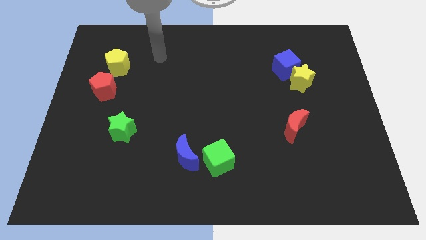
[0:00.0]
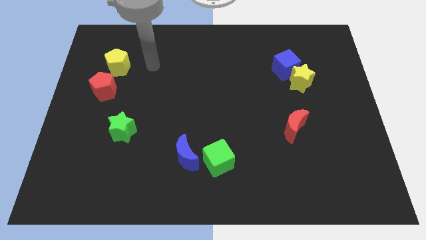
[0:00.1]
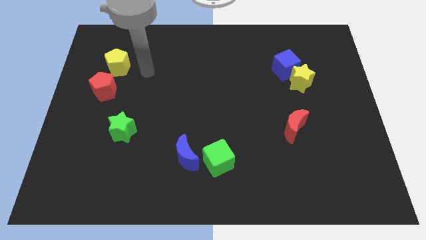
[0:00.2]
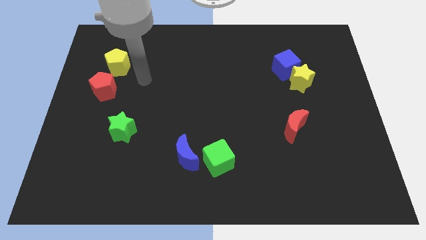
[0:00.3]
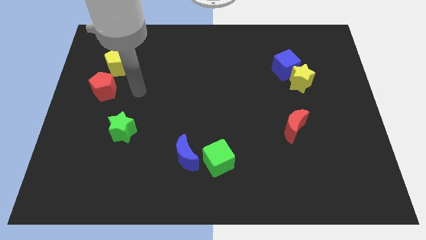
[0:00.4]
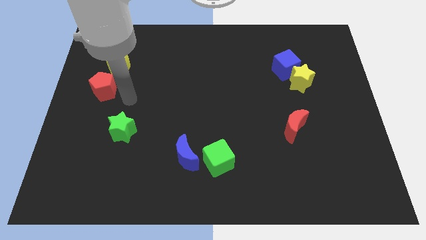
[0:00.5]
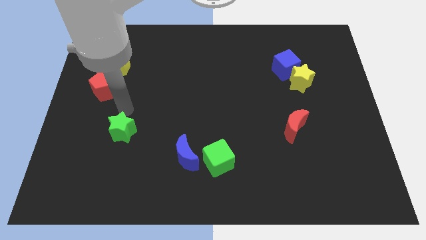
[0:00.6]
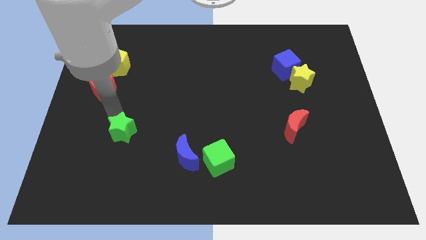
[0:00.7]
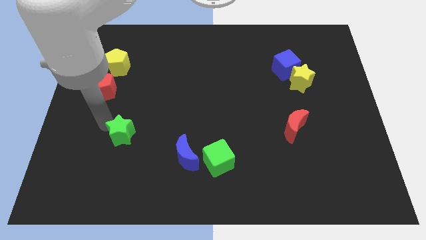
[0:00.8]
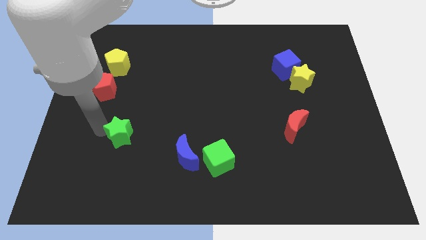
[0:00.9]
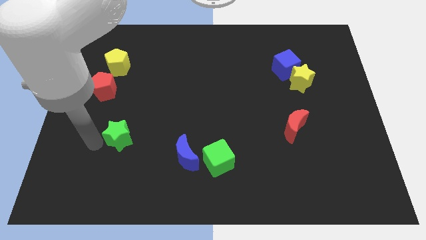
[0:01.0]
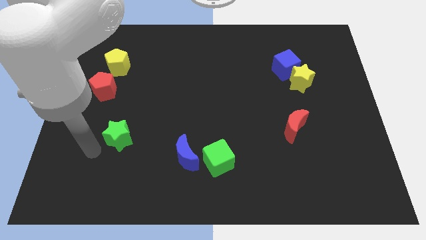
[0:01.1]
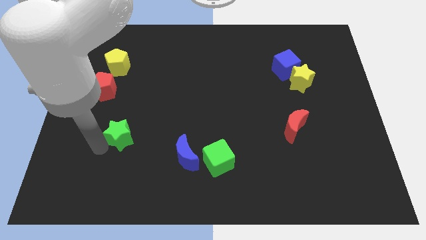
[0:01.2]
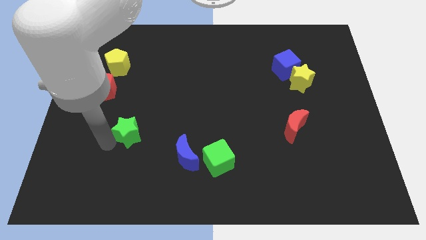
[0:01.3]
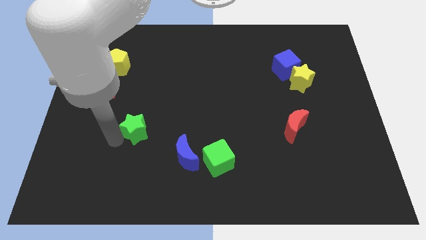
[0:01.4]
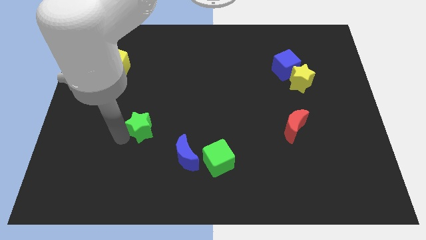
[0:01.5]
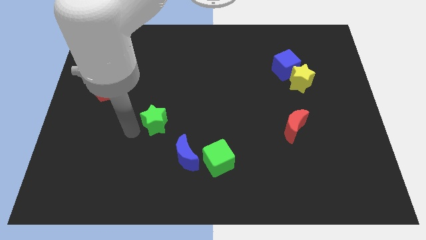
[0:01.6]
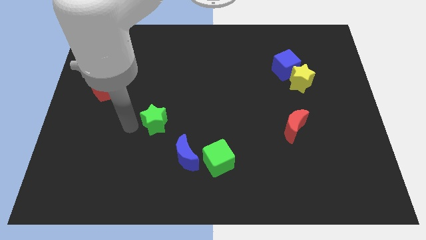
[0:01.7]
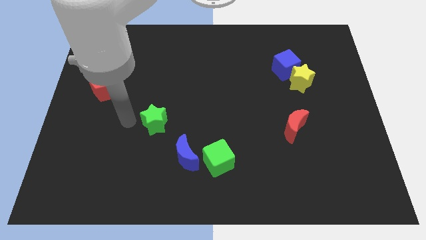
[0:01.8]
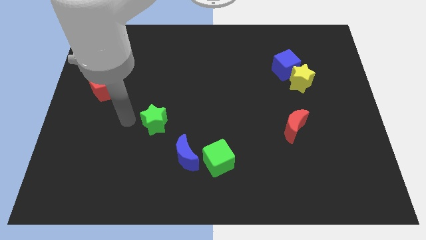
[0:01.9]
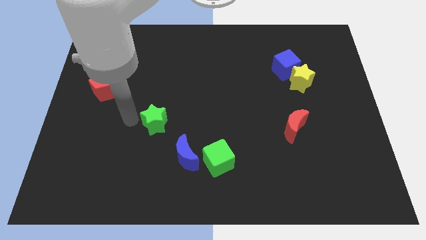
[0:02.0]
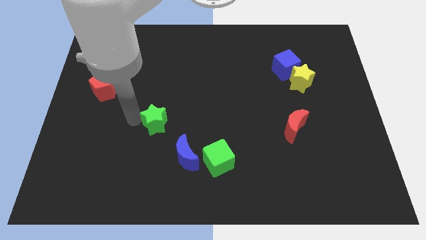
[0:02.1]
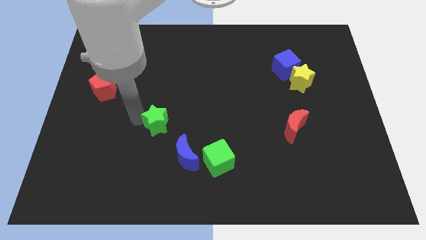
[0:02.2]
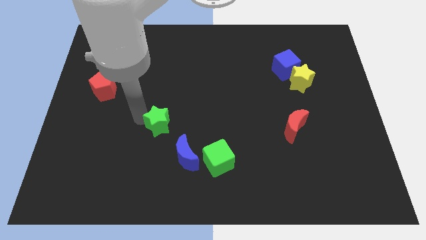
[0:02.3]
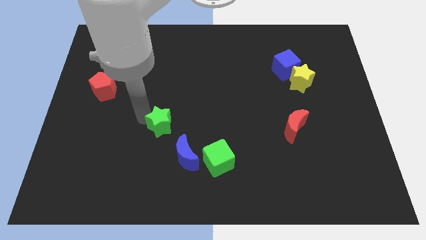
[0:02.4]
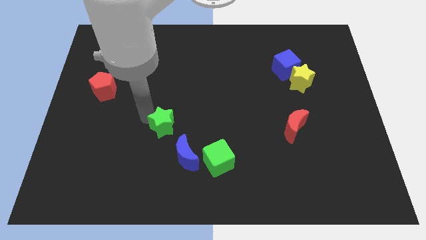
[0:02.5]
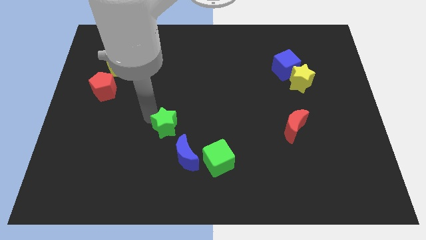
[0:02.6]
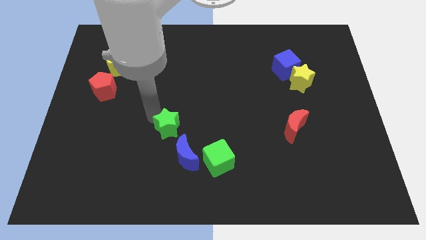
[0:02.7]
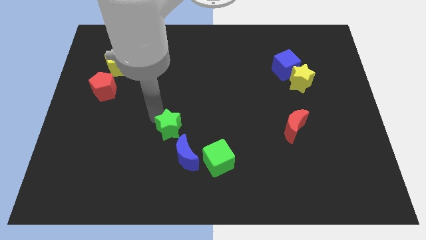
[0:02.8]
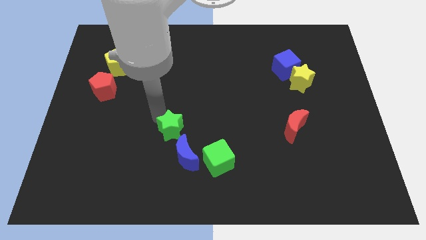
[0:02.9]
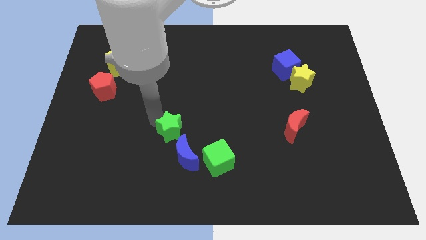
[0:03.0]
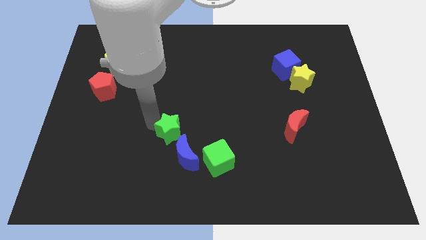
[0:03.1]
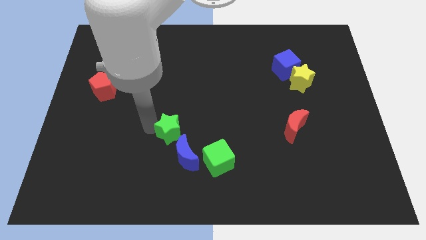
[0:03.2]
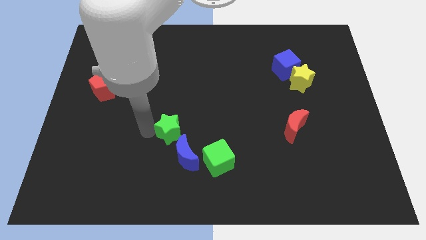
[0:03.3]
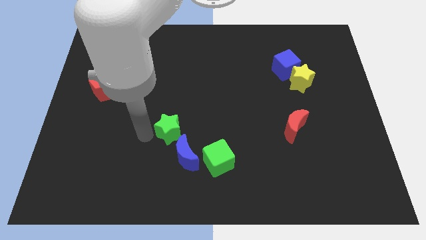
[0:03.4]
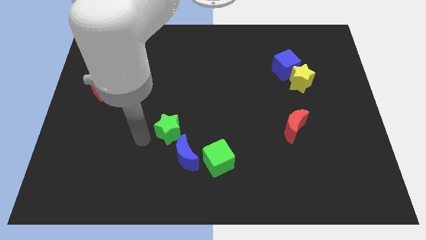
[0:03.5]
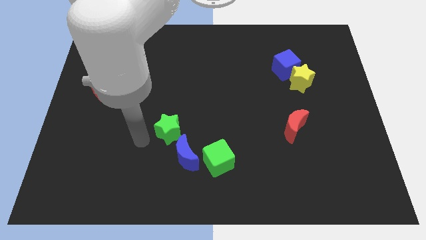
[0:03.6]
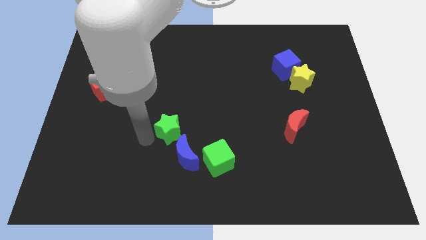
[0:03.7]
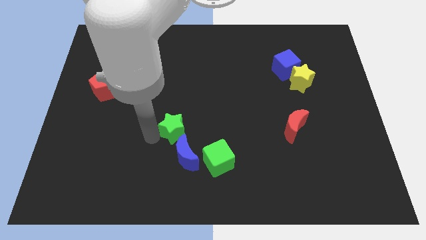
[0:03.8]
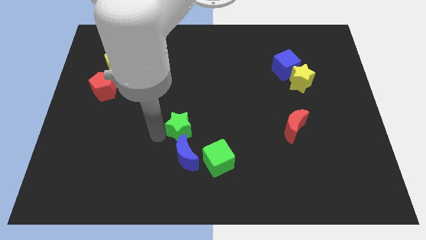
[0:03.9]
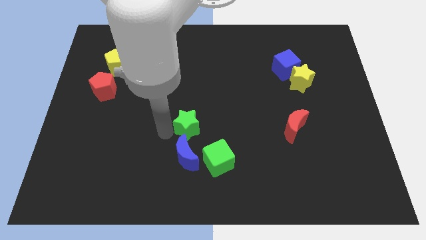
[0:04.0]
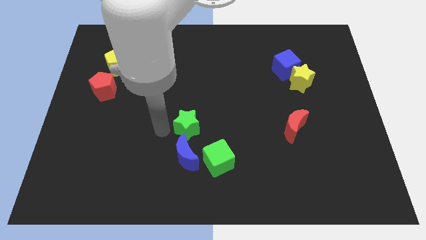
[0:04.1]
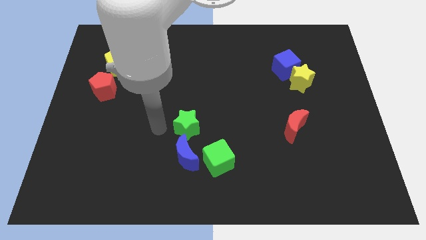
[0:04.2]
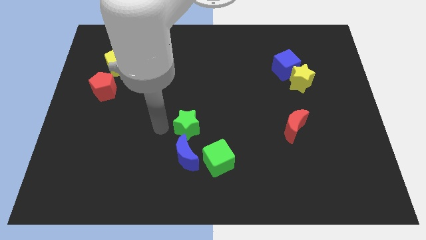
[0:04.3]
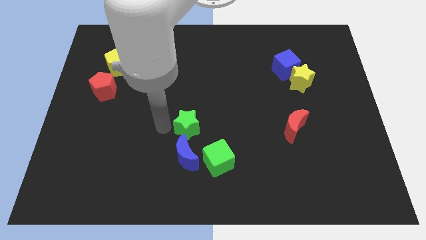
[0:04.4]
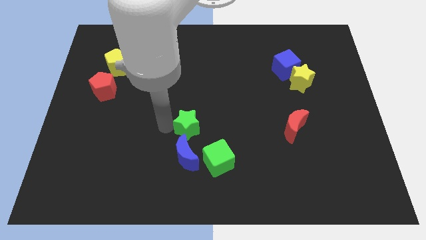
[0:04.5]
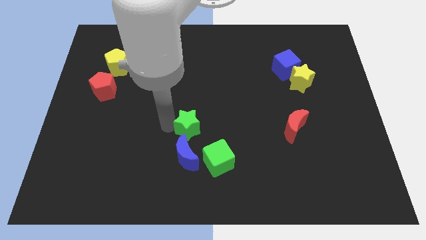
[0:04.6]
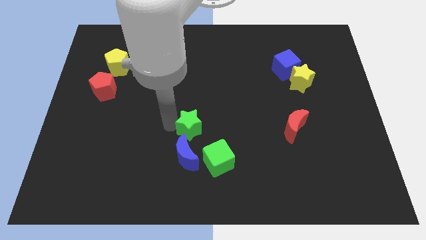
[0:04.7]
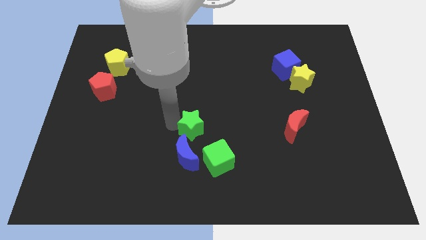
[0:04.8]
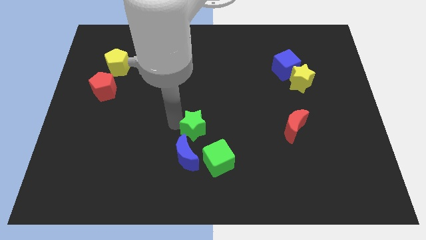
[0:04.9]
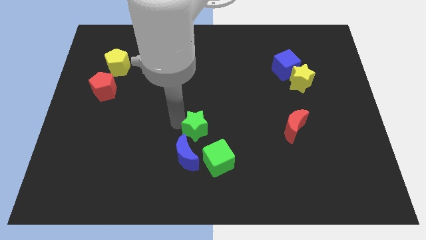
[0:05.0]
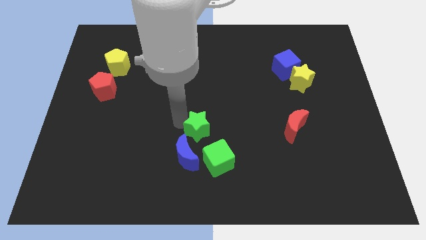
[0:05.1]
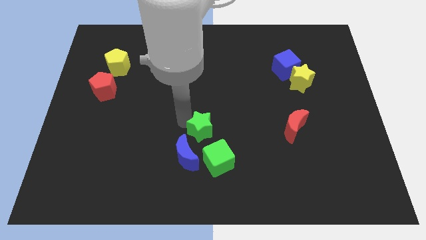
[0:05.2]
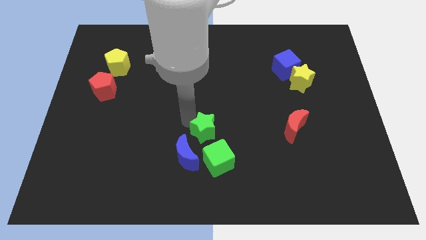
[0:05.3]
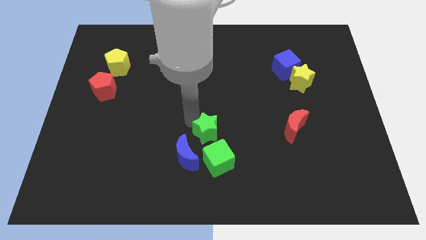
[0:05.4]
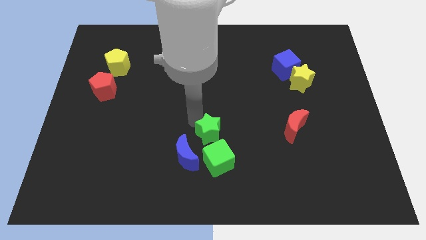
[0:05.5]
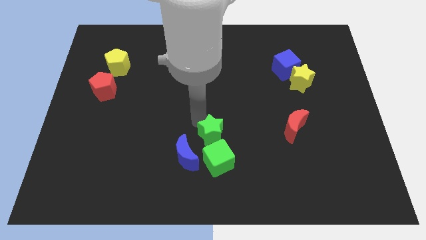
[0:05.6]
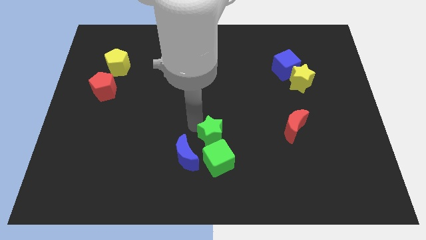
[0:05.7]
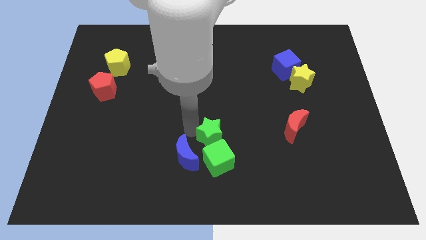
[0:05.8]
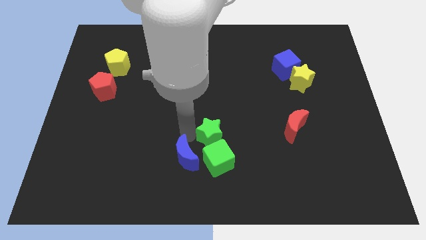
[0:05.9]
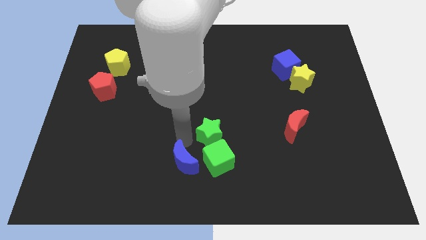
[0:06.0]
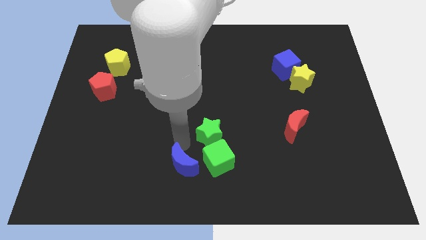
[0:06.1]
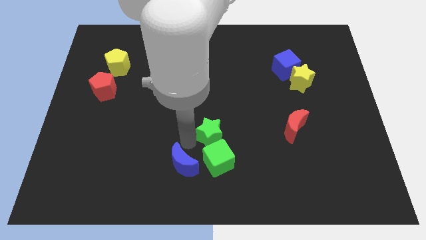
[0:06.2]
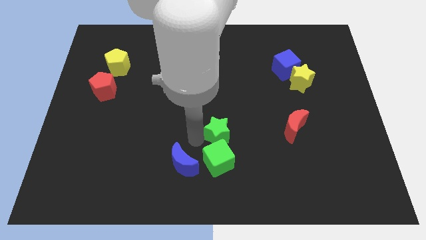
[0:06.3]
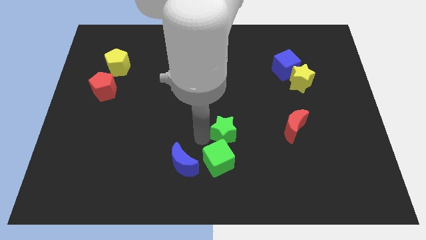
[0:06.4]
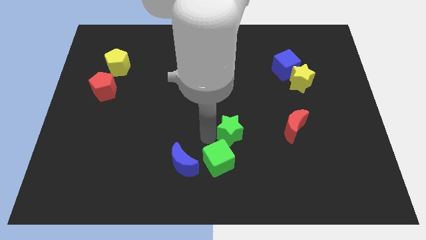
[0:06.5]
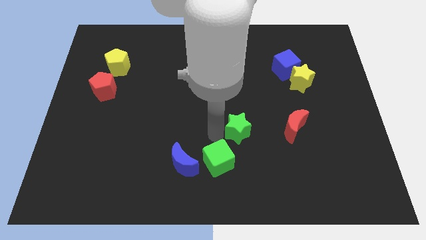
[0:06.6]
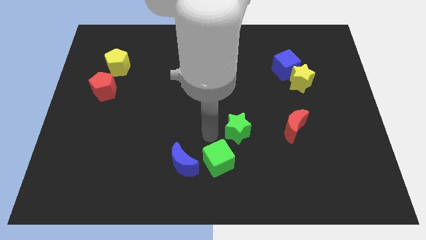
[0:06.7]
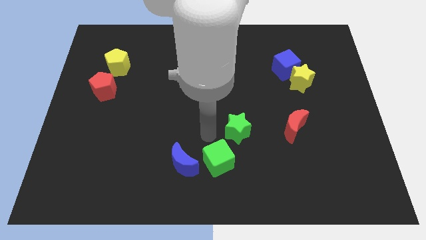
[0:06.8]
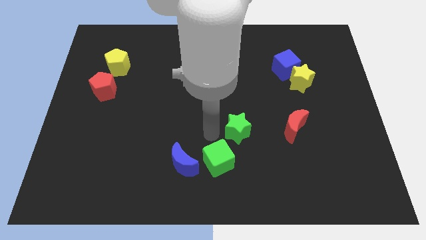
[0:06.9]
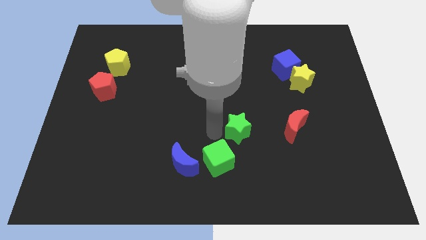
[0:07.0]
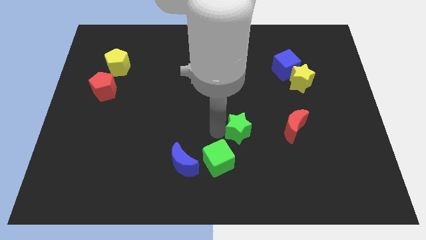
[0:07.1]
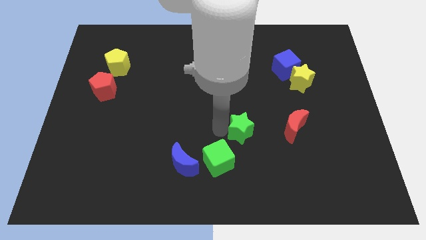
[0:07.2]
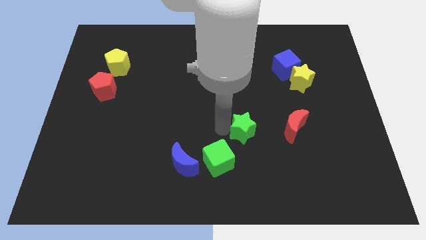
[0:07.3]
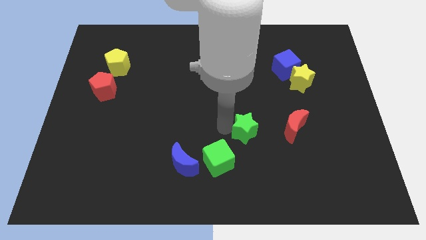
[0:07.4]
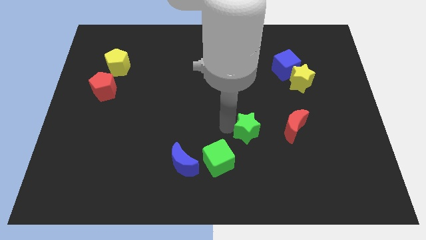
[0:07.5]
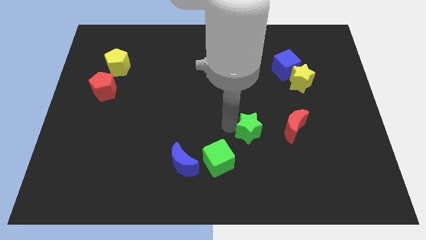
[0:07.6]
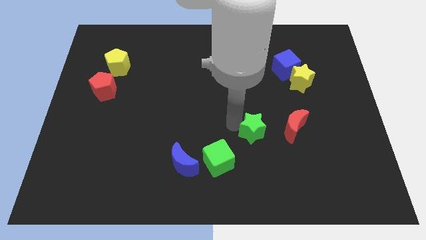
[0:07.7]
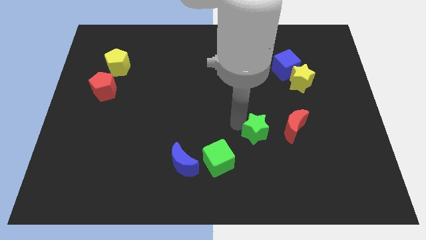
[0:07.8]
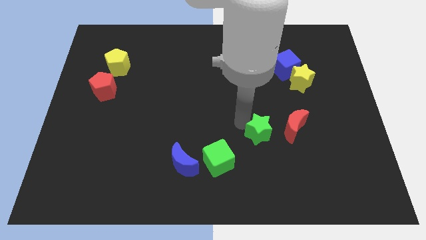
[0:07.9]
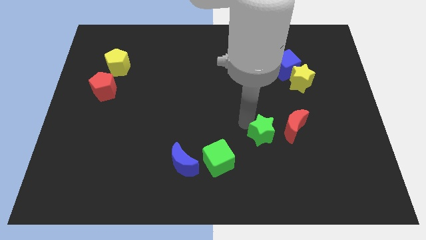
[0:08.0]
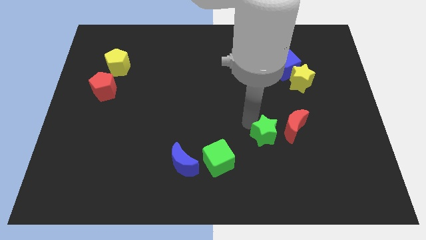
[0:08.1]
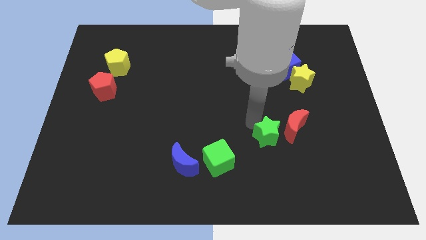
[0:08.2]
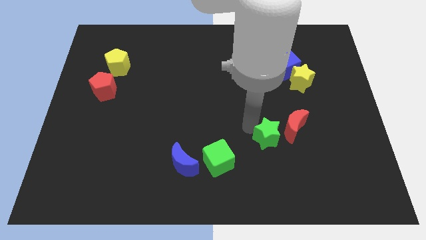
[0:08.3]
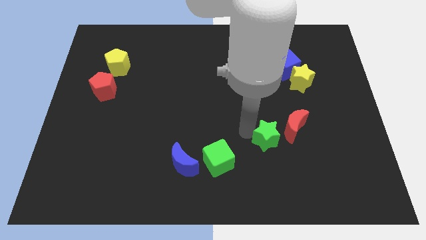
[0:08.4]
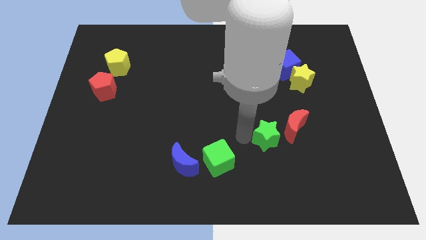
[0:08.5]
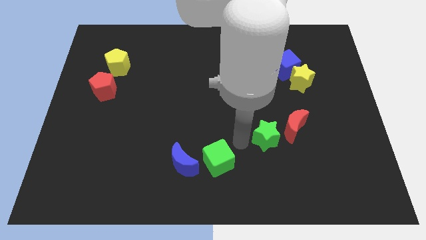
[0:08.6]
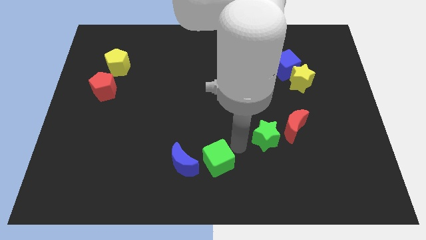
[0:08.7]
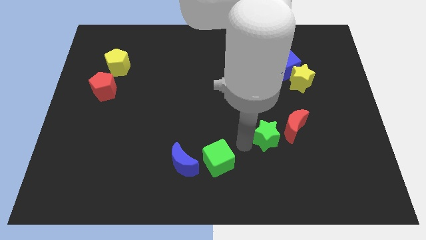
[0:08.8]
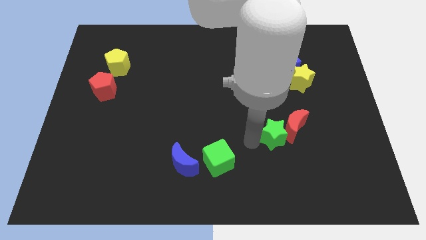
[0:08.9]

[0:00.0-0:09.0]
push the green star to the red moon
